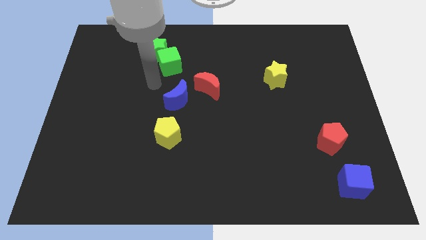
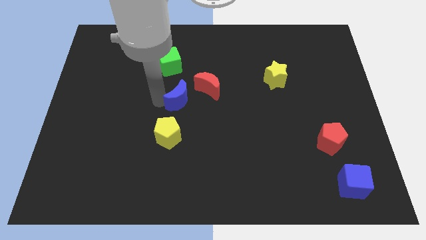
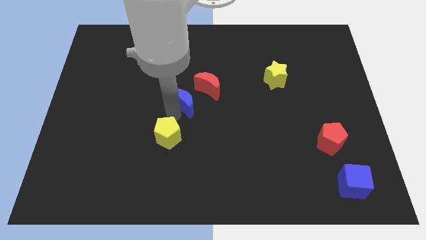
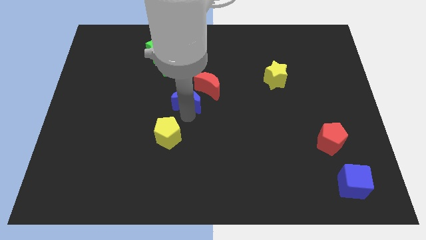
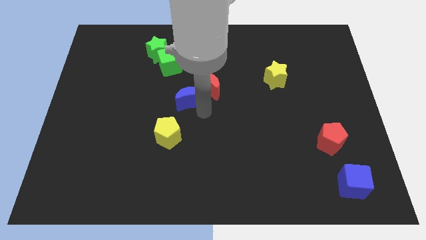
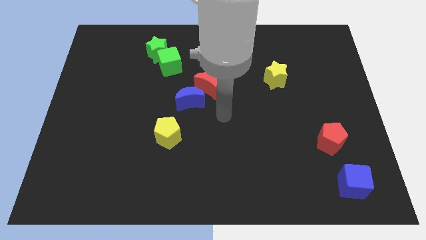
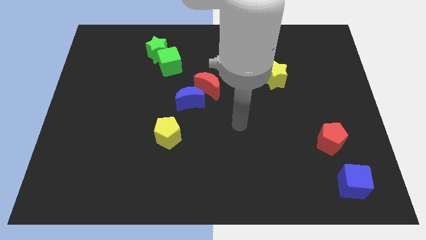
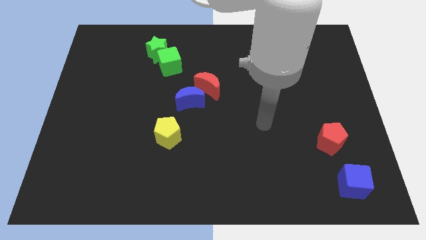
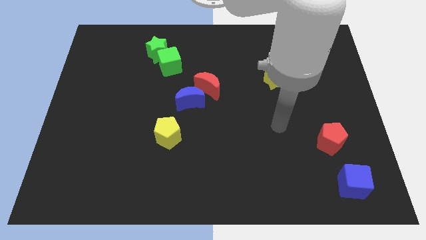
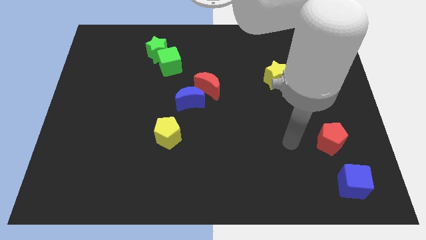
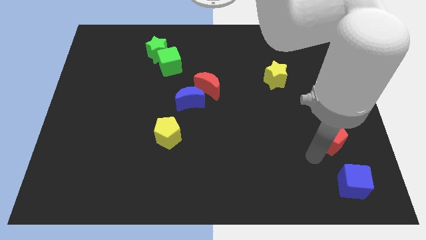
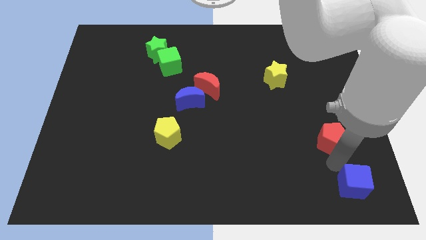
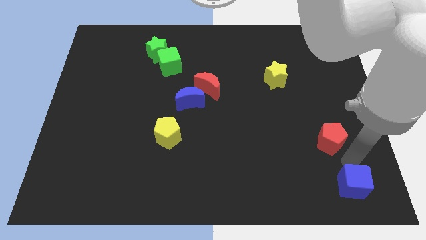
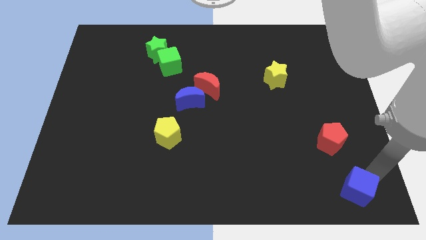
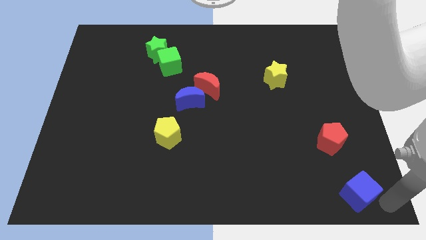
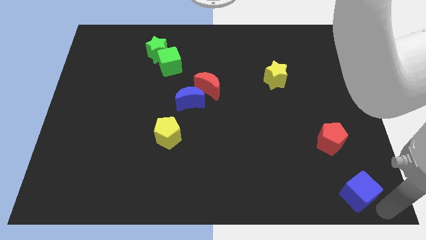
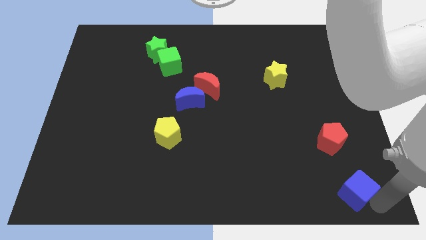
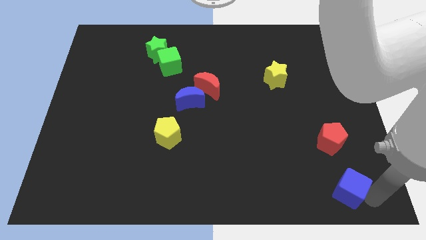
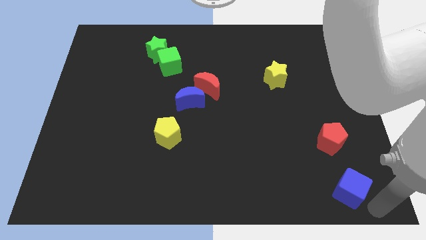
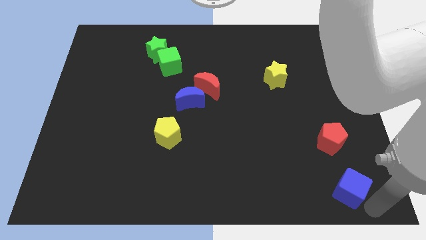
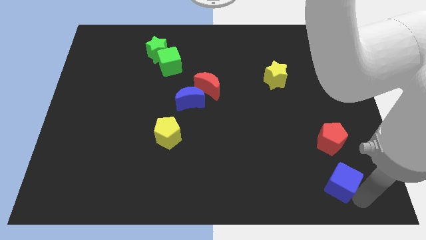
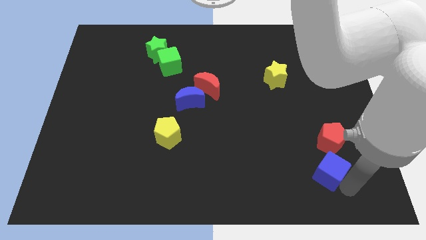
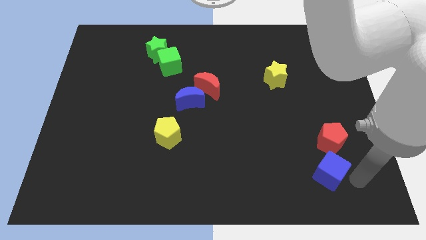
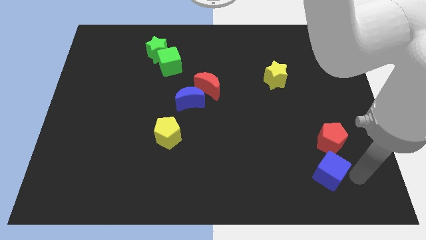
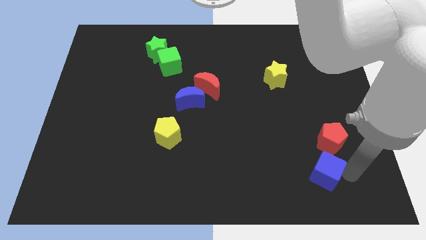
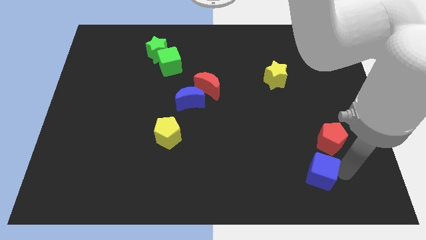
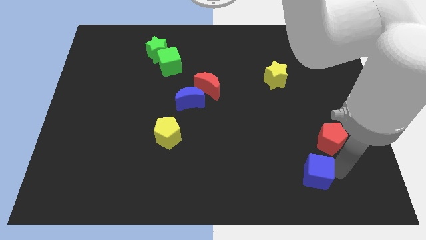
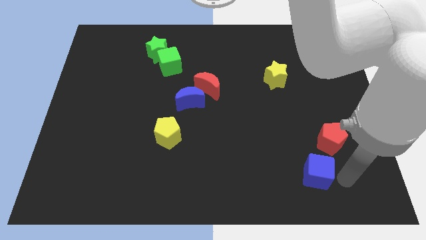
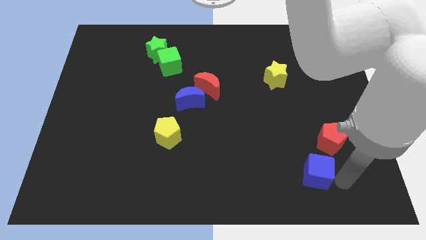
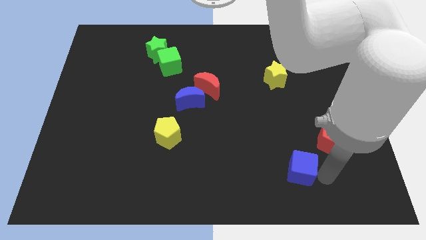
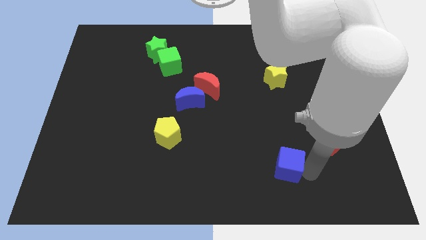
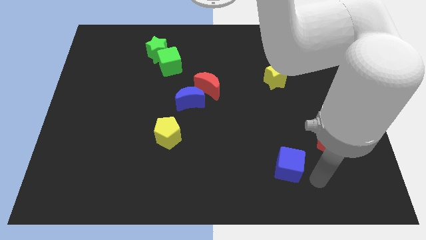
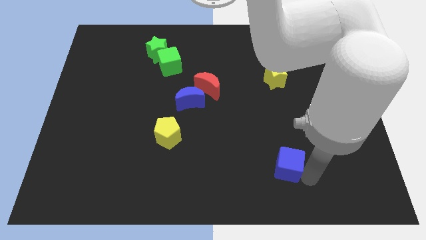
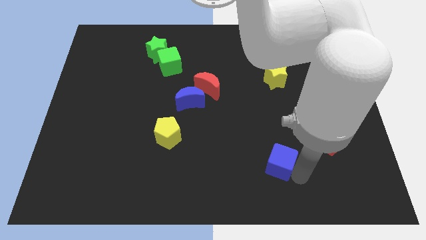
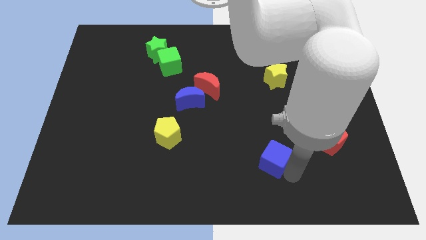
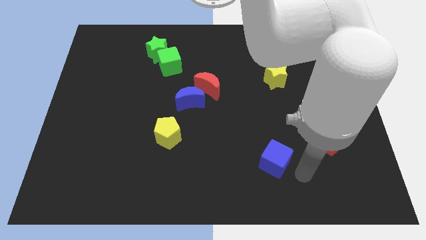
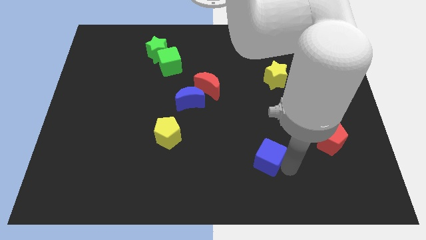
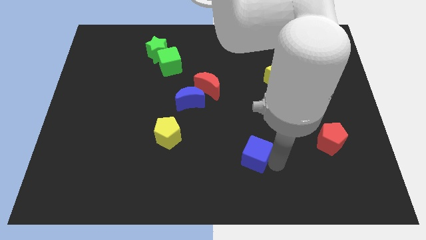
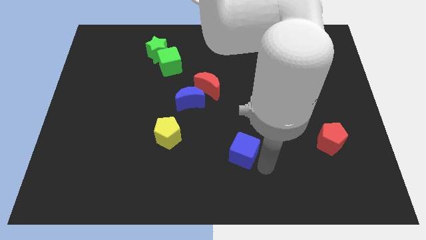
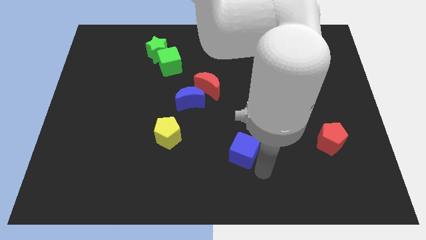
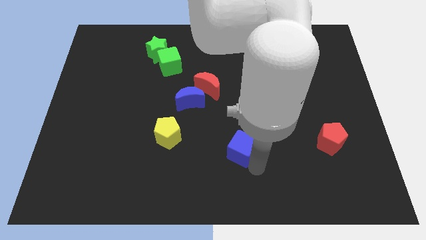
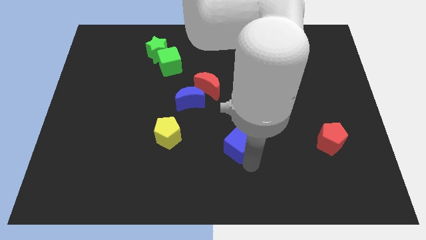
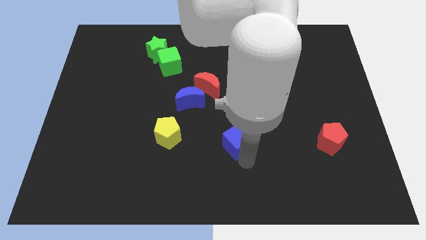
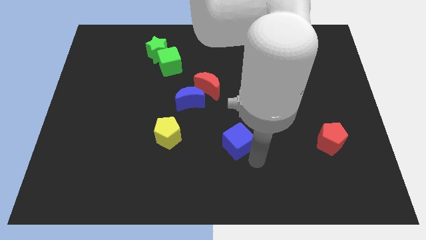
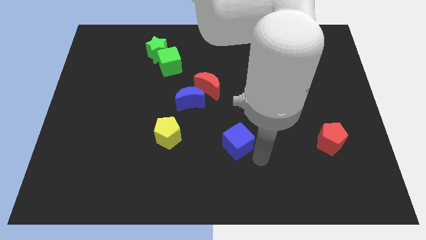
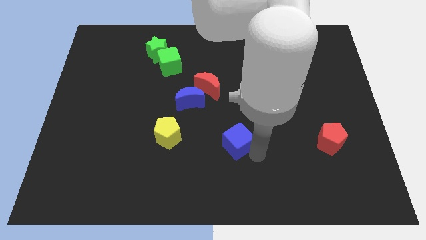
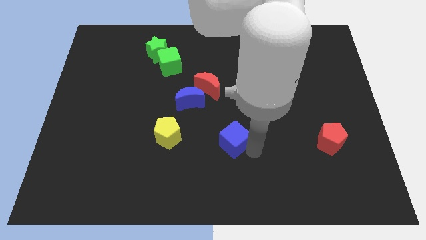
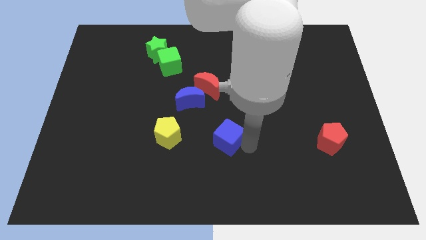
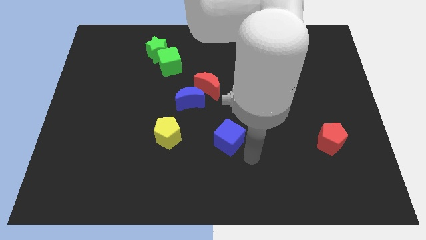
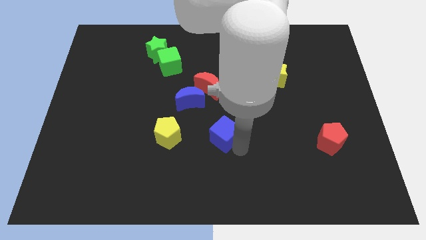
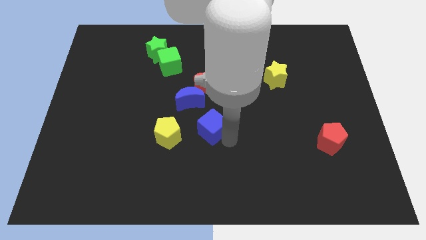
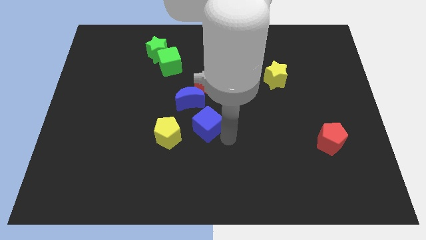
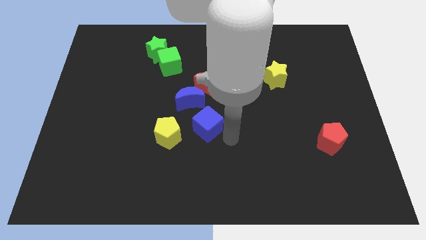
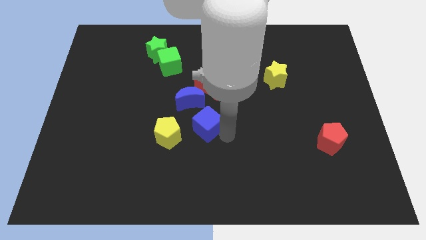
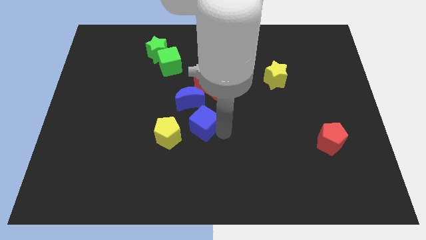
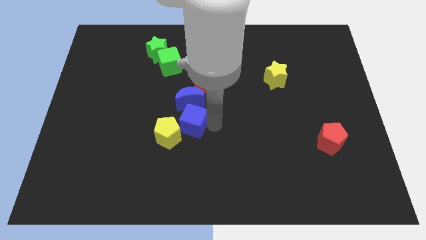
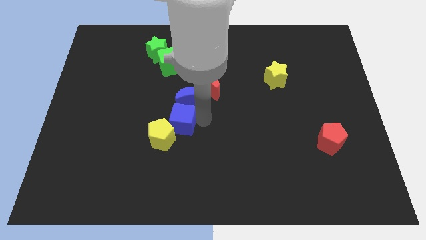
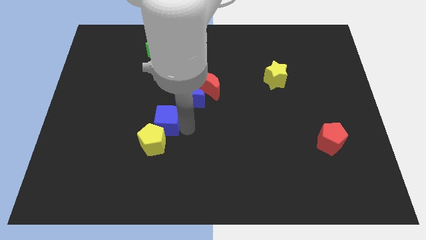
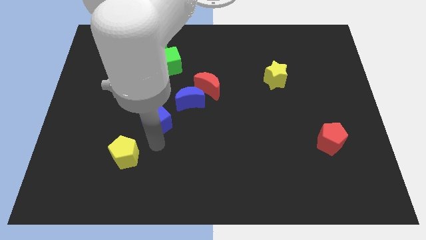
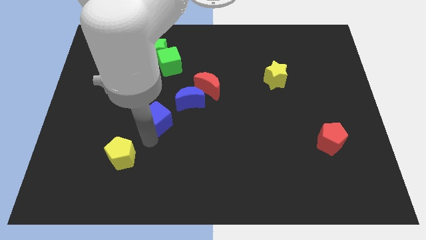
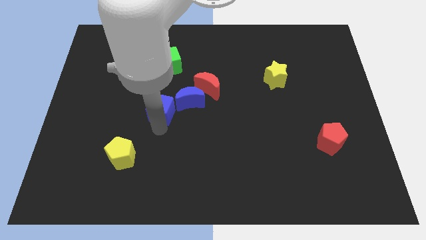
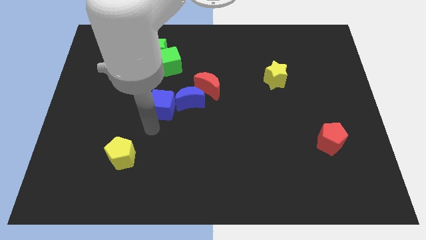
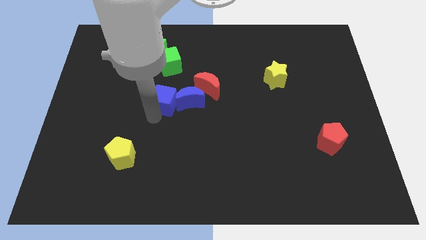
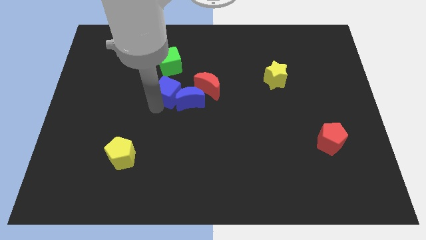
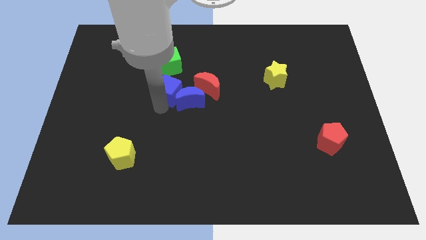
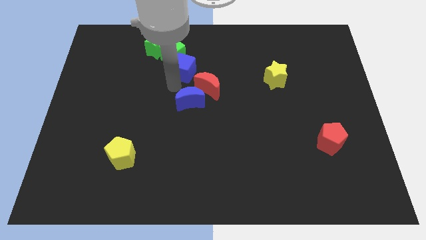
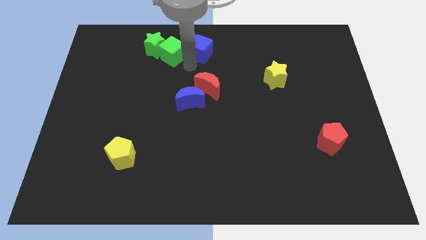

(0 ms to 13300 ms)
put the blue cube to the top side

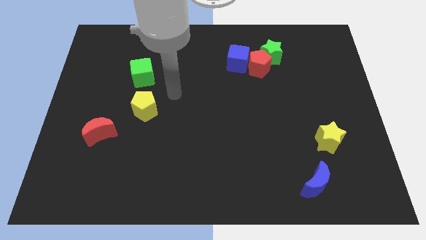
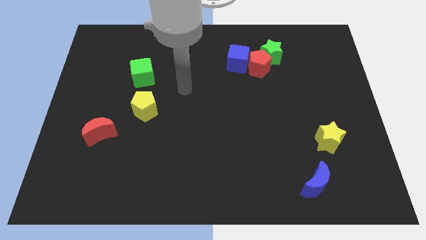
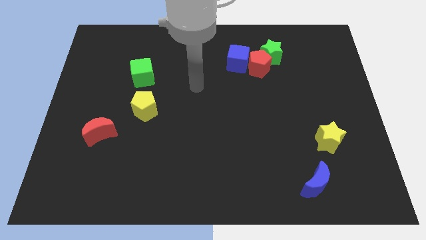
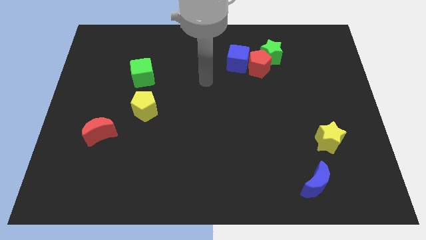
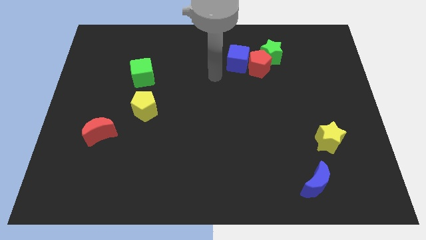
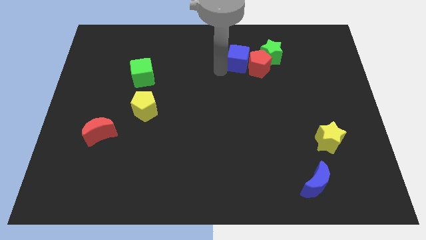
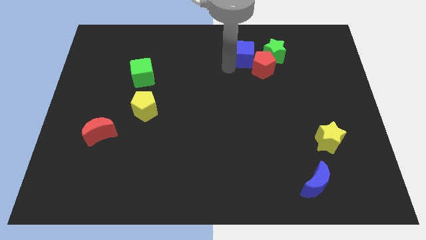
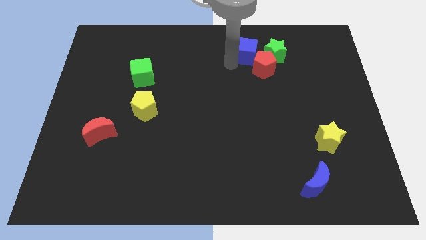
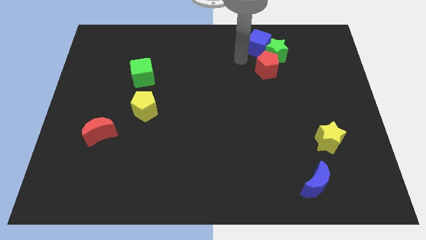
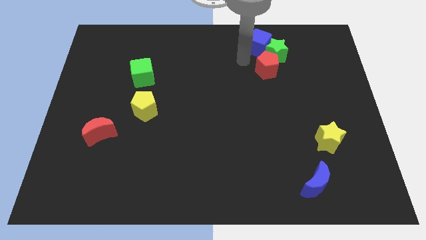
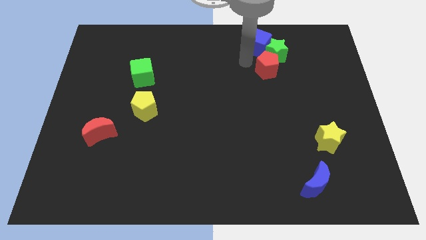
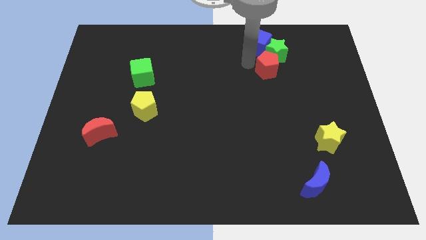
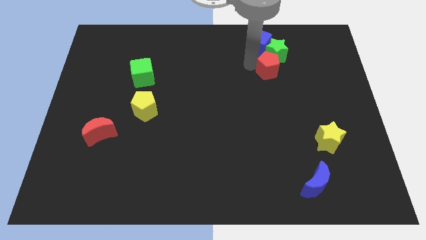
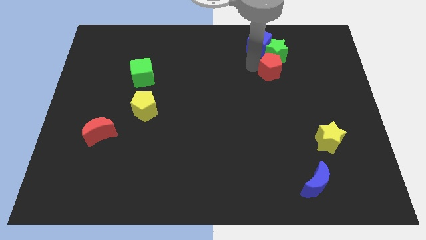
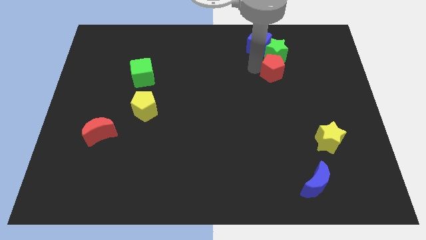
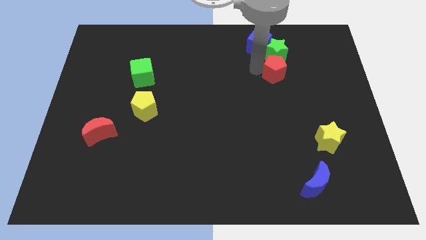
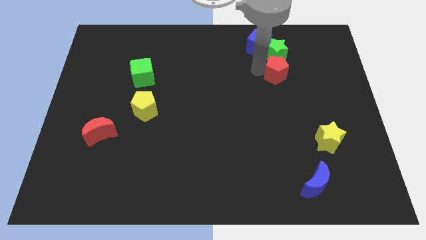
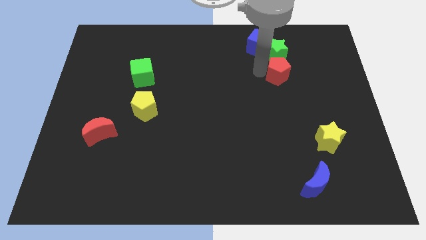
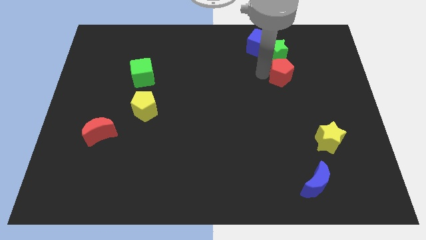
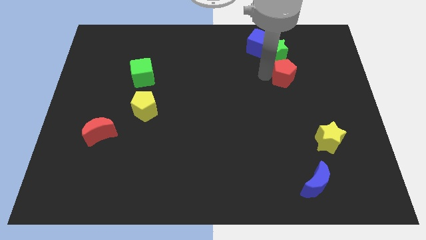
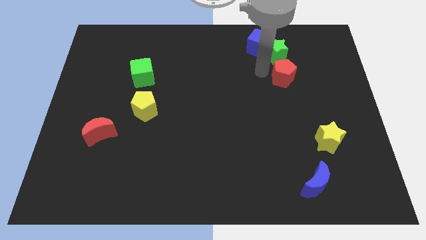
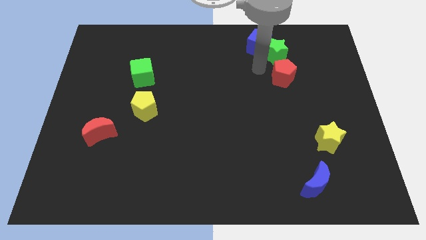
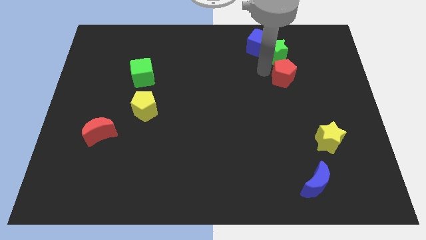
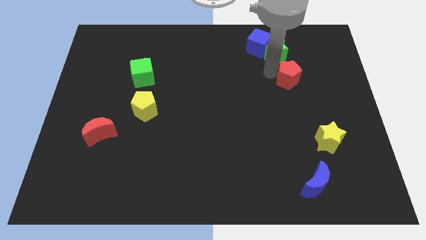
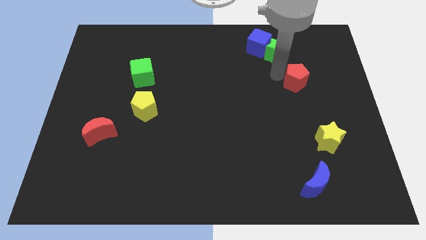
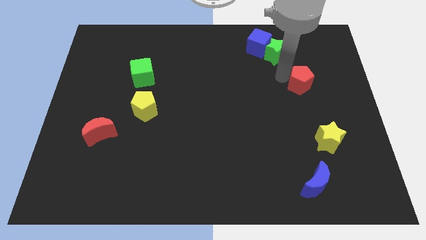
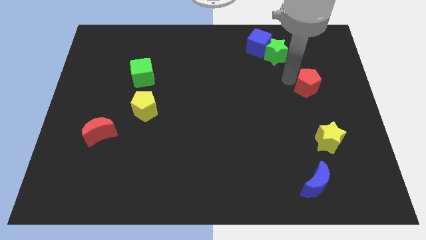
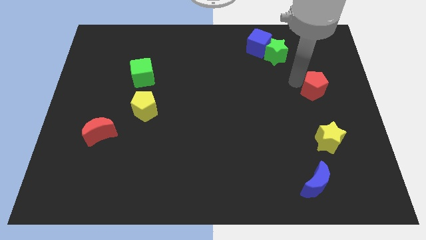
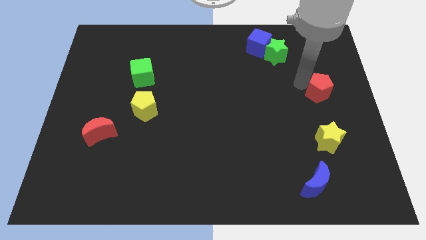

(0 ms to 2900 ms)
push the red pentagon to the center right
